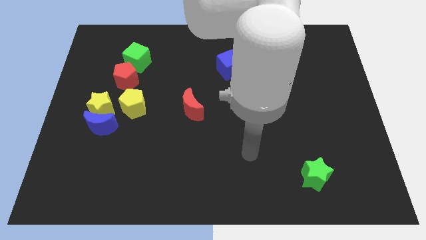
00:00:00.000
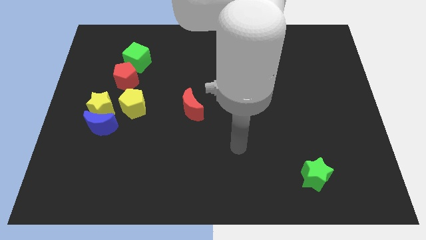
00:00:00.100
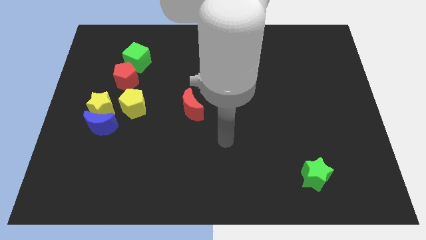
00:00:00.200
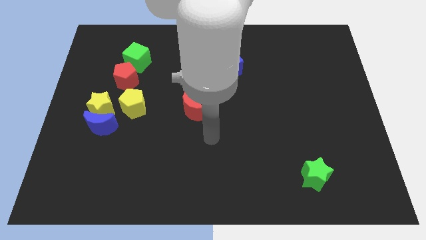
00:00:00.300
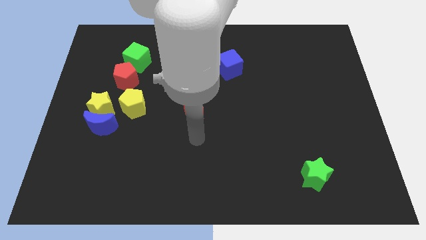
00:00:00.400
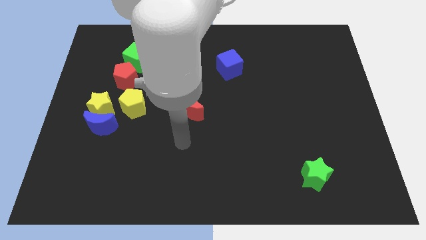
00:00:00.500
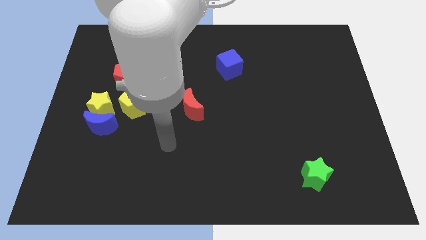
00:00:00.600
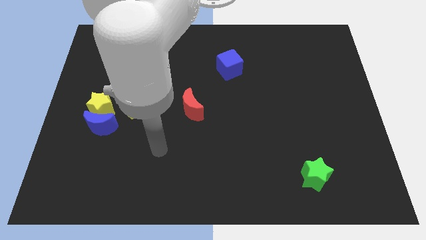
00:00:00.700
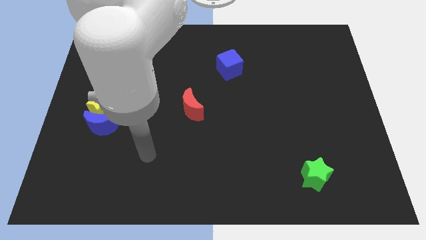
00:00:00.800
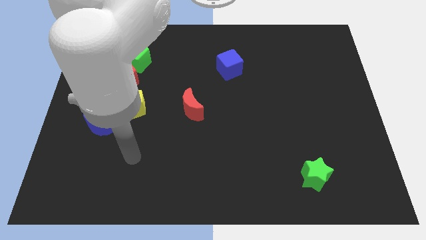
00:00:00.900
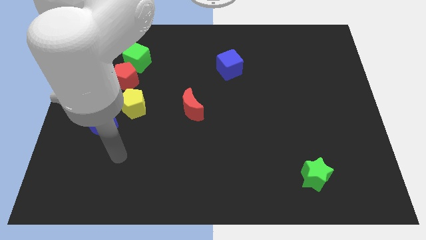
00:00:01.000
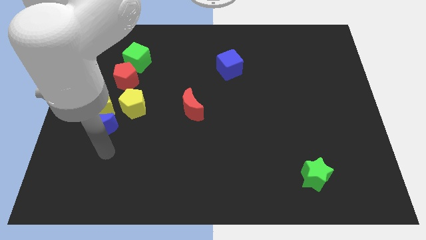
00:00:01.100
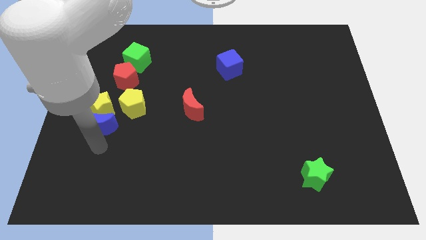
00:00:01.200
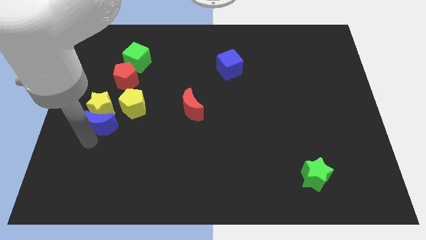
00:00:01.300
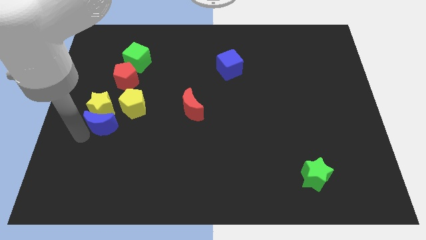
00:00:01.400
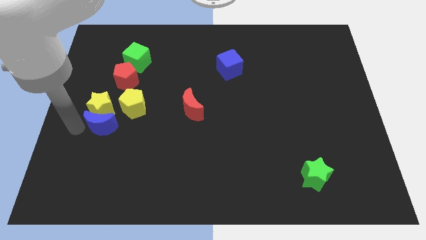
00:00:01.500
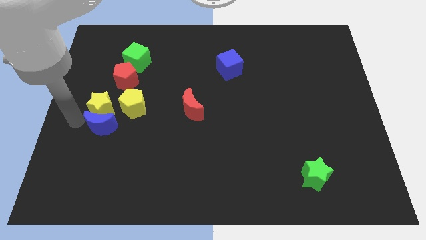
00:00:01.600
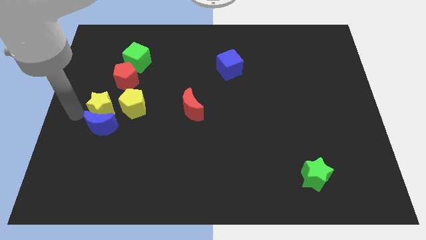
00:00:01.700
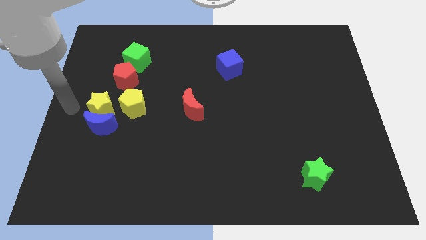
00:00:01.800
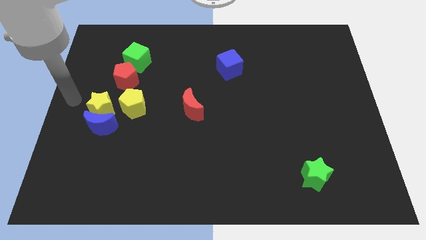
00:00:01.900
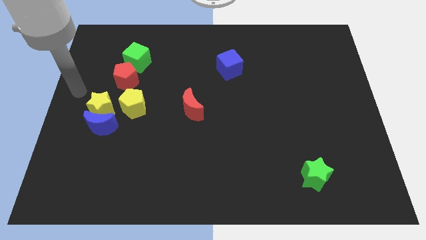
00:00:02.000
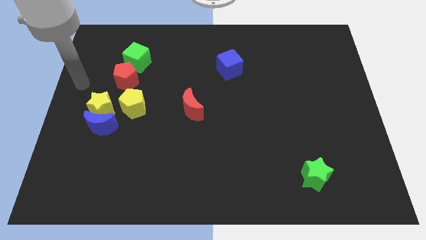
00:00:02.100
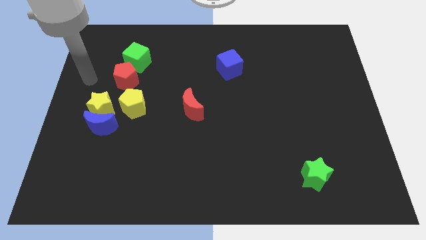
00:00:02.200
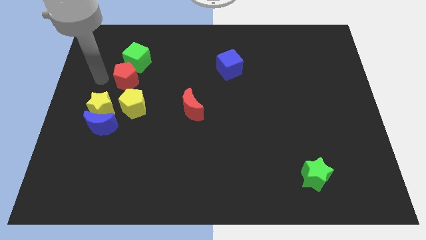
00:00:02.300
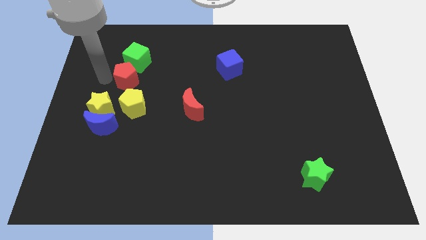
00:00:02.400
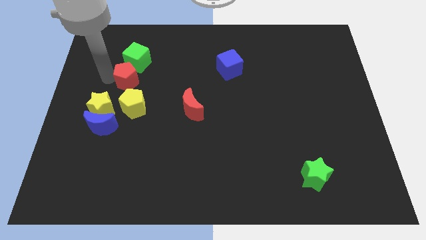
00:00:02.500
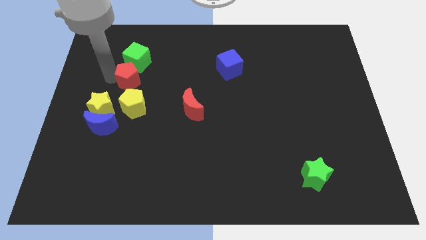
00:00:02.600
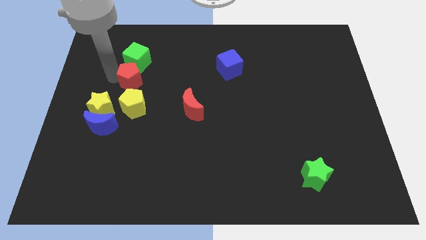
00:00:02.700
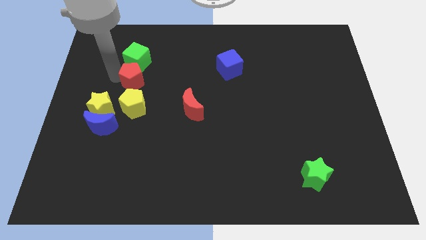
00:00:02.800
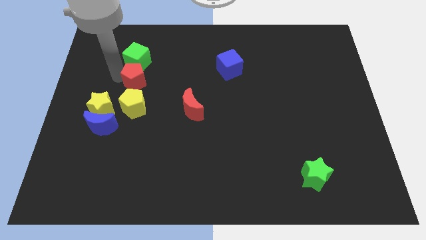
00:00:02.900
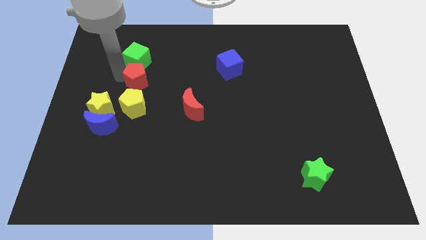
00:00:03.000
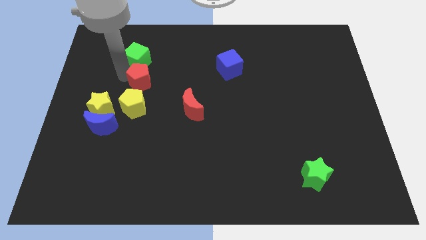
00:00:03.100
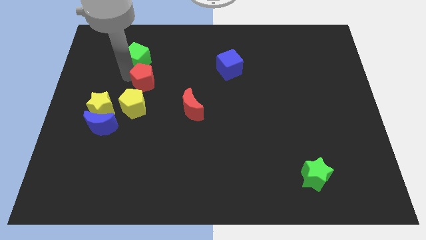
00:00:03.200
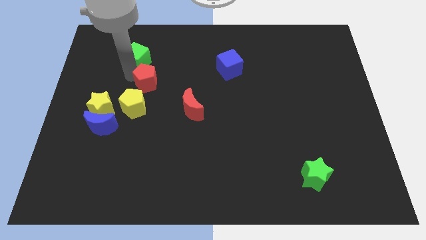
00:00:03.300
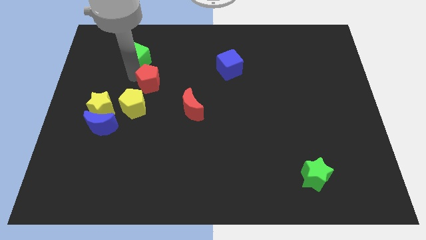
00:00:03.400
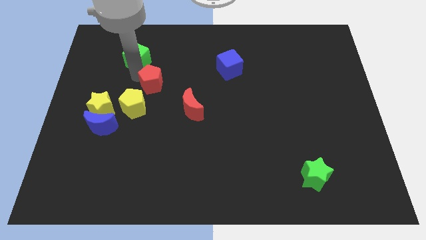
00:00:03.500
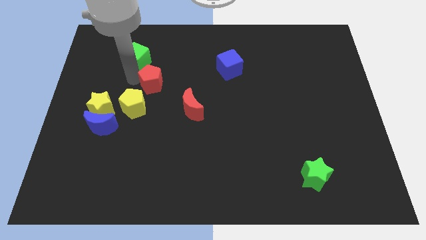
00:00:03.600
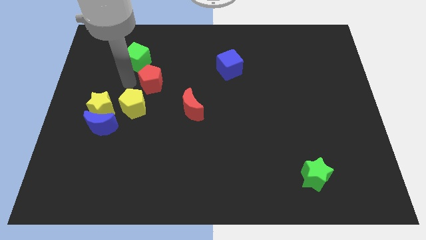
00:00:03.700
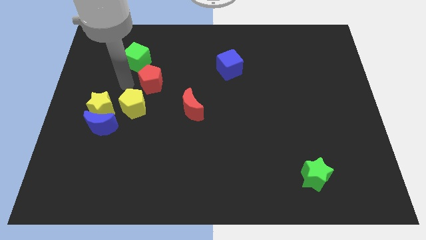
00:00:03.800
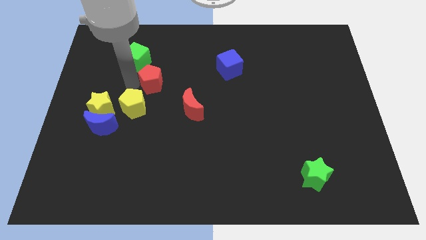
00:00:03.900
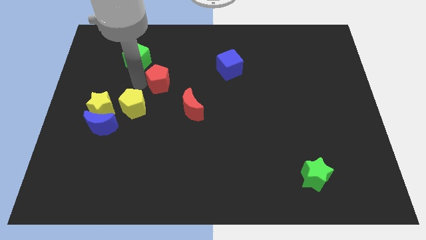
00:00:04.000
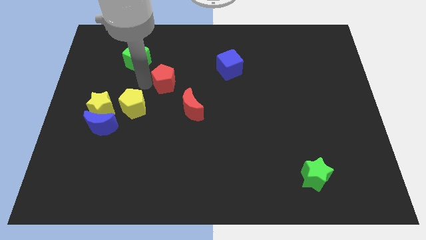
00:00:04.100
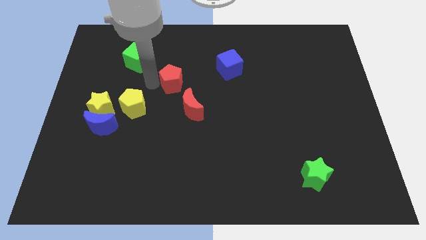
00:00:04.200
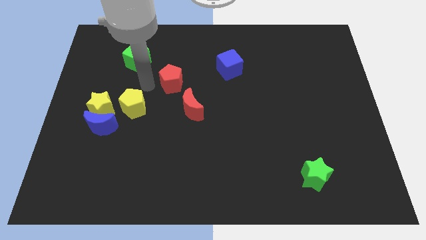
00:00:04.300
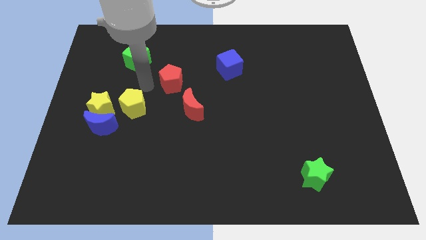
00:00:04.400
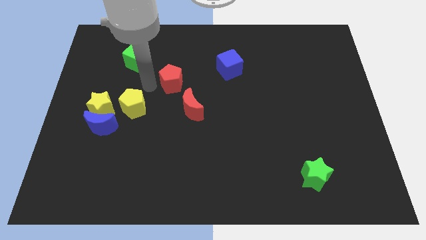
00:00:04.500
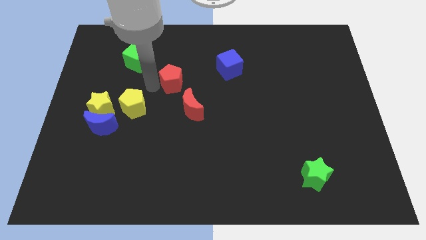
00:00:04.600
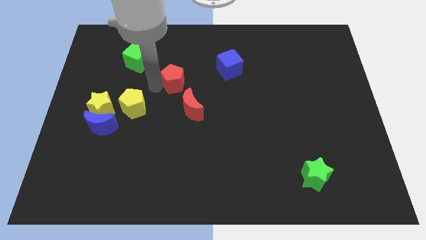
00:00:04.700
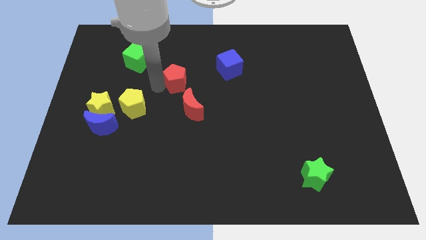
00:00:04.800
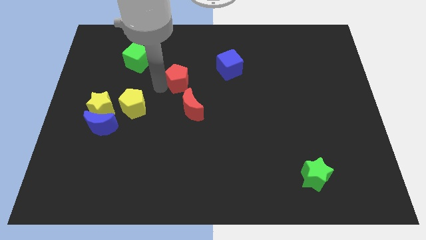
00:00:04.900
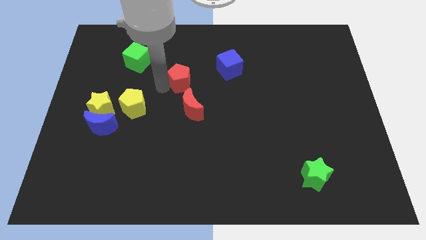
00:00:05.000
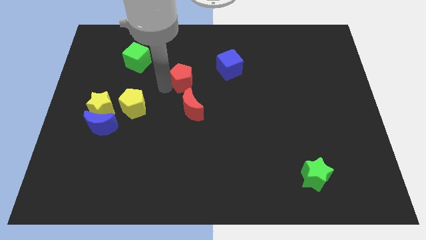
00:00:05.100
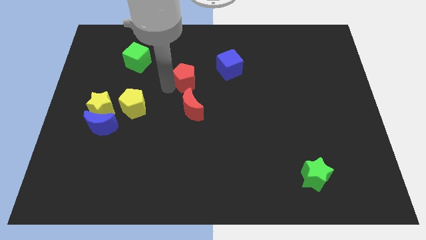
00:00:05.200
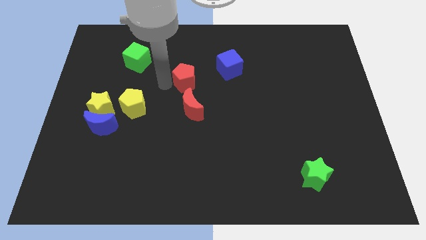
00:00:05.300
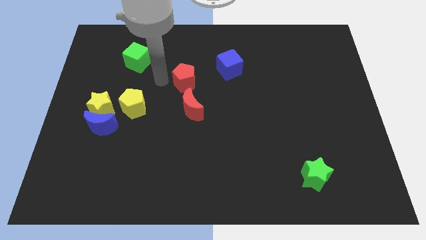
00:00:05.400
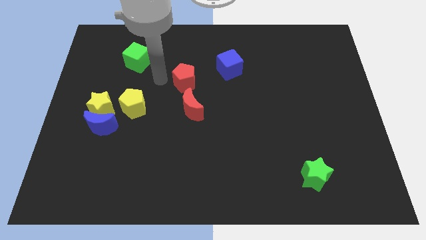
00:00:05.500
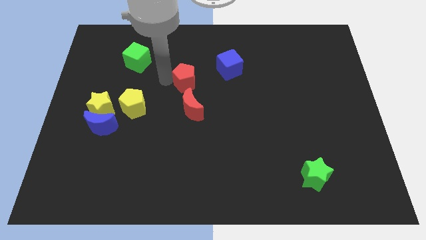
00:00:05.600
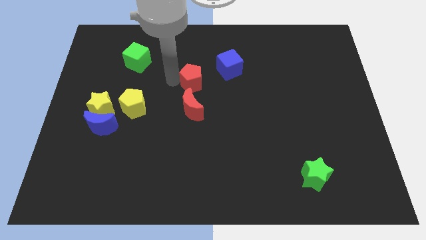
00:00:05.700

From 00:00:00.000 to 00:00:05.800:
move the red pentagon to the bottom left side of the blue cube
